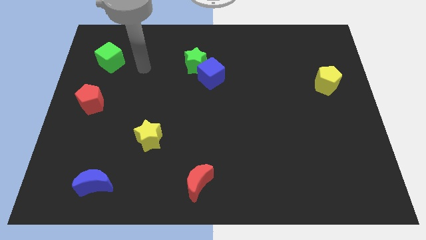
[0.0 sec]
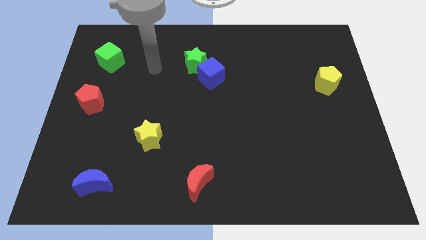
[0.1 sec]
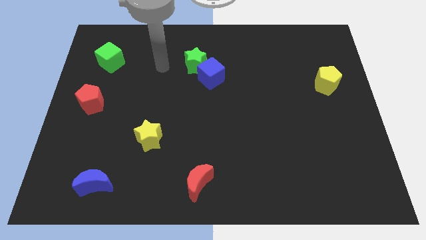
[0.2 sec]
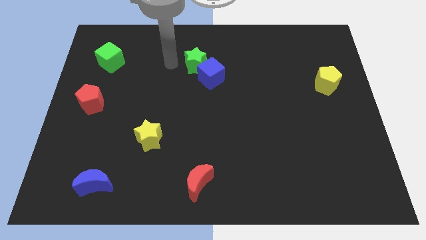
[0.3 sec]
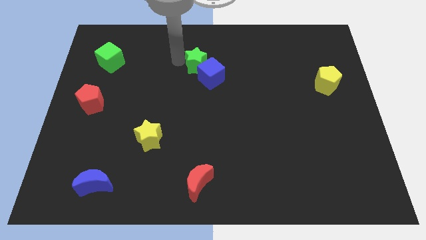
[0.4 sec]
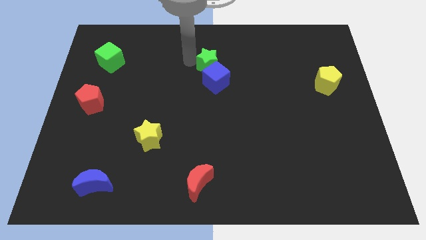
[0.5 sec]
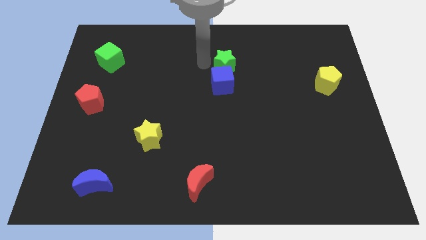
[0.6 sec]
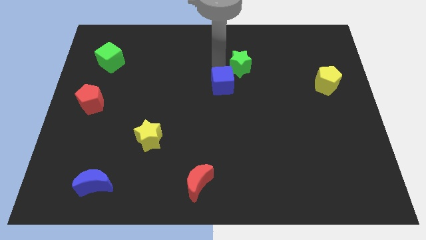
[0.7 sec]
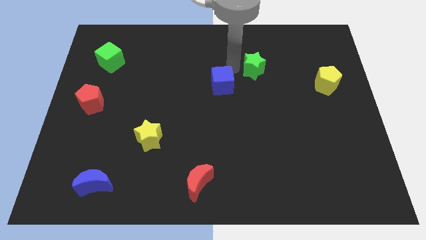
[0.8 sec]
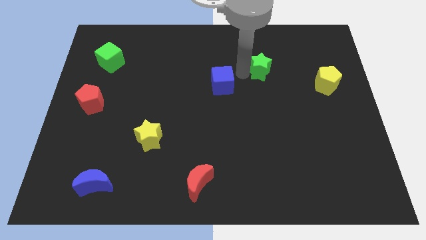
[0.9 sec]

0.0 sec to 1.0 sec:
pull the blue cube apart from the green star

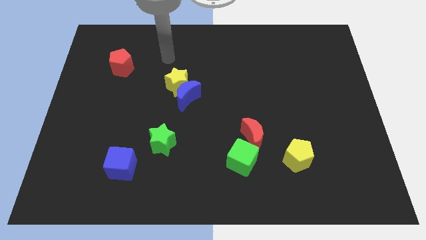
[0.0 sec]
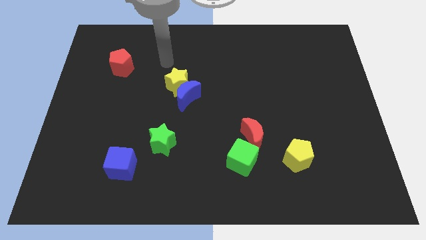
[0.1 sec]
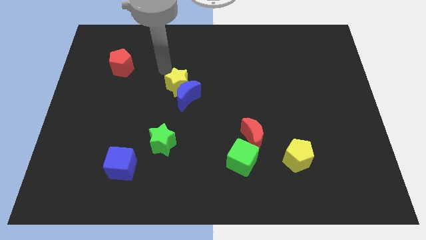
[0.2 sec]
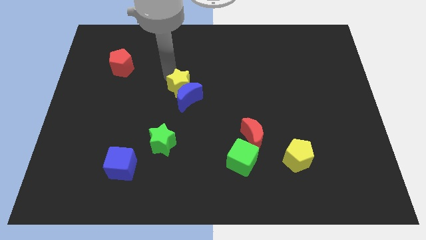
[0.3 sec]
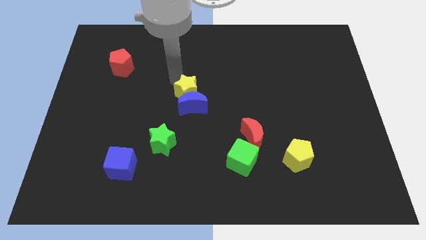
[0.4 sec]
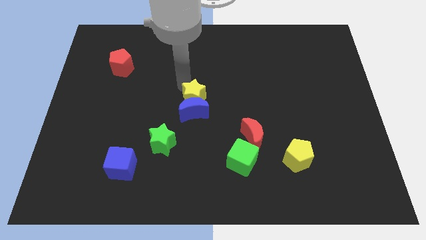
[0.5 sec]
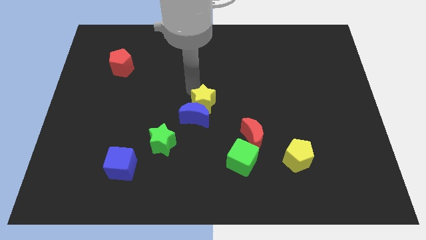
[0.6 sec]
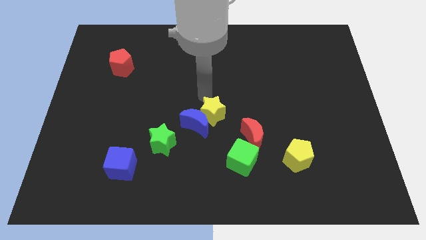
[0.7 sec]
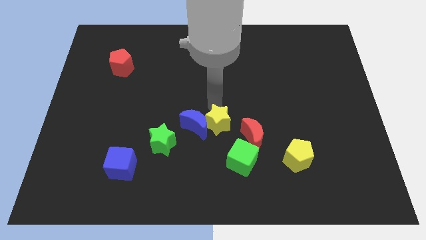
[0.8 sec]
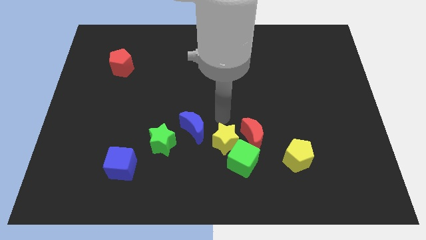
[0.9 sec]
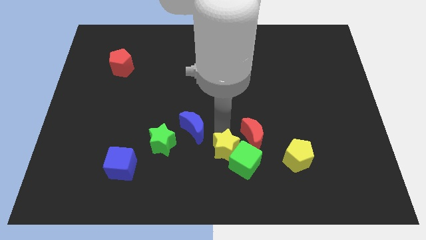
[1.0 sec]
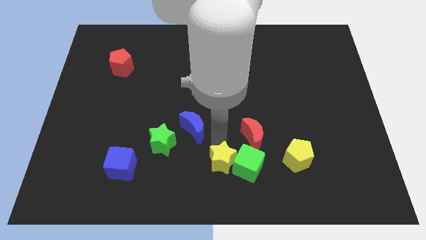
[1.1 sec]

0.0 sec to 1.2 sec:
pull the blue moon apart from the yellow star

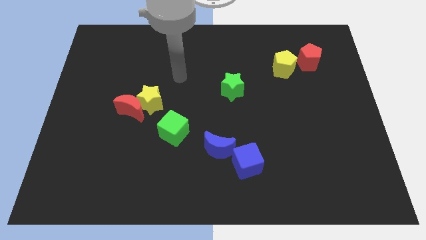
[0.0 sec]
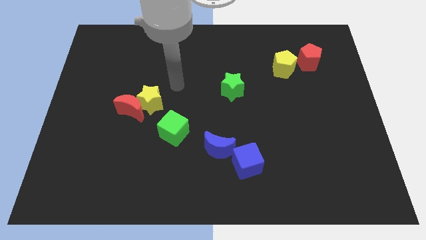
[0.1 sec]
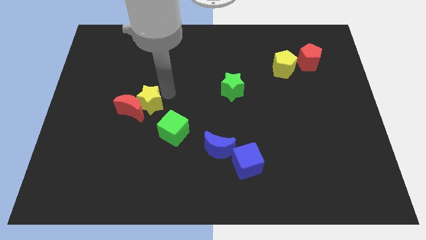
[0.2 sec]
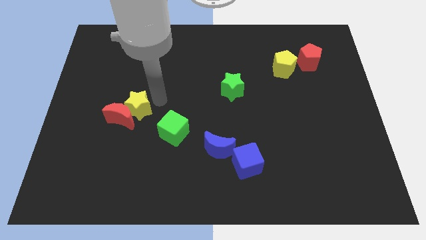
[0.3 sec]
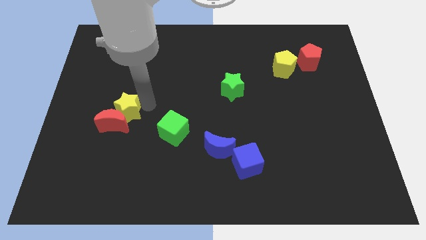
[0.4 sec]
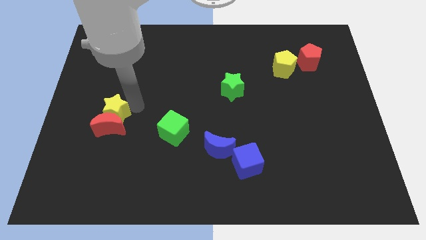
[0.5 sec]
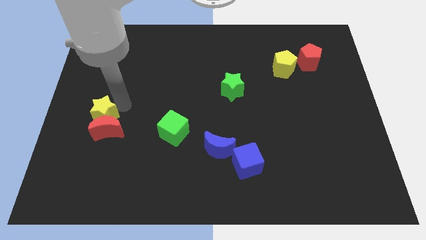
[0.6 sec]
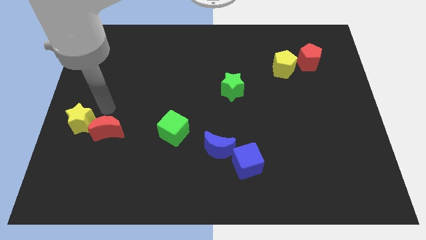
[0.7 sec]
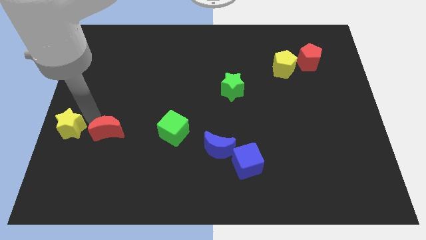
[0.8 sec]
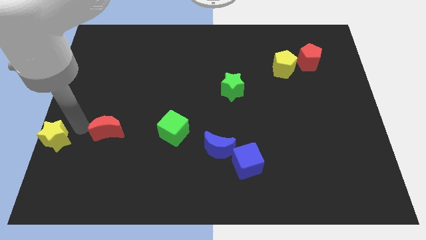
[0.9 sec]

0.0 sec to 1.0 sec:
separate the red moon from the yellow star

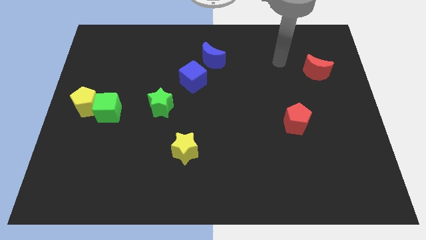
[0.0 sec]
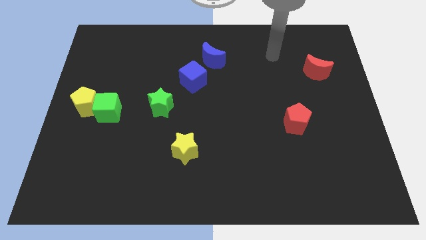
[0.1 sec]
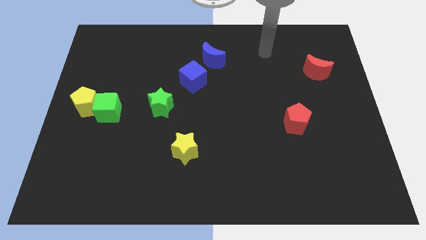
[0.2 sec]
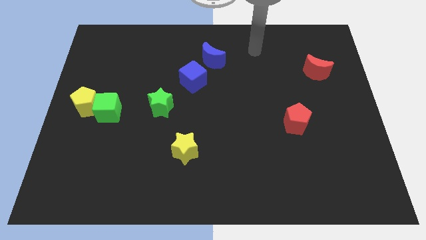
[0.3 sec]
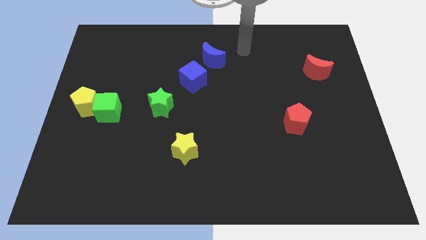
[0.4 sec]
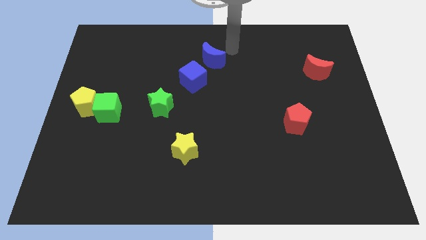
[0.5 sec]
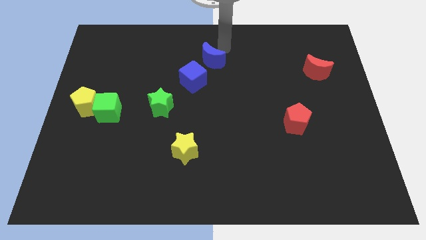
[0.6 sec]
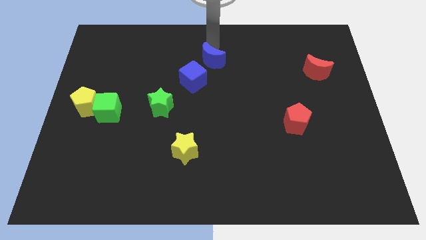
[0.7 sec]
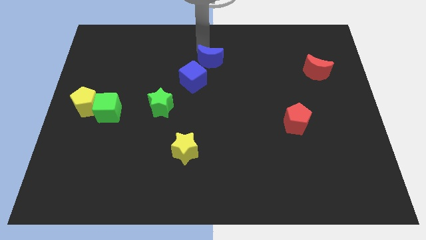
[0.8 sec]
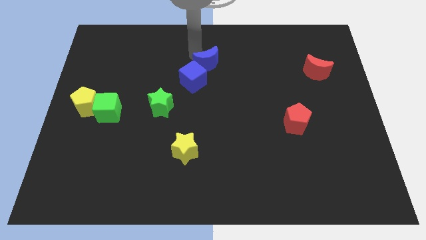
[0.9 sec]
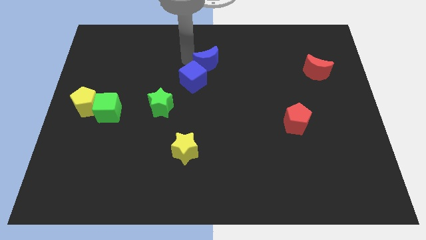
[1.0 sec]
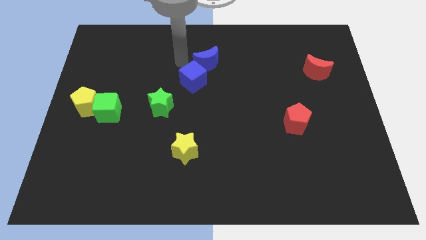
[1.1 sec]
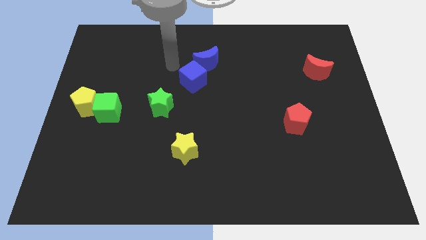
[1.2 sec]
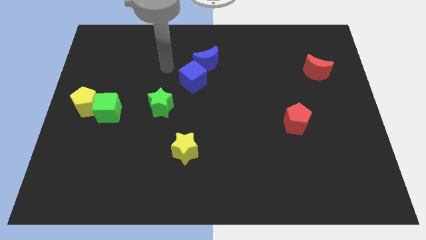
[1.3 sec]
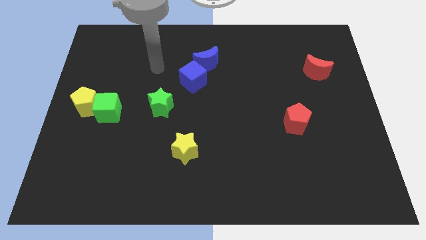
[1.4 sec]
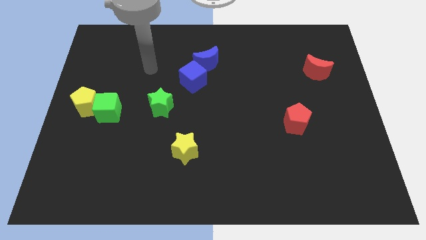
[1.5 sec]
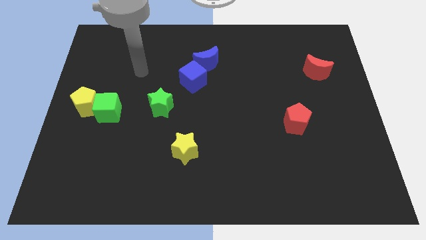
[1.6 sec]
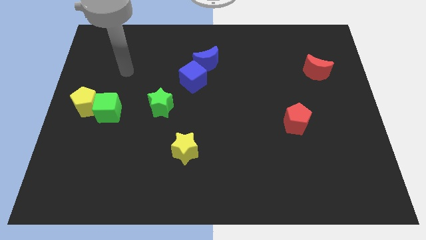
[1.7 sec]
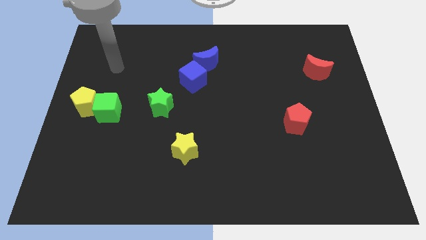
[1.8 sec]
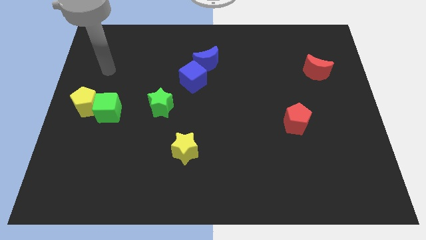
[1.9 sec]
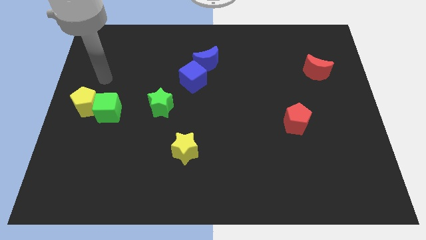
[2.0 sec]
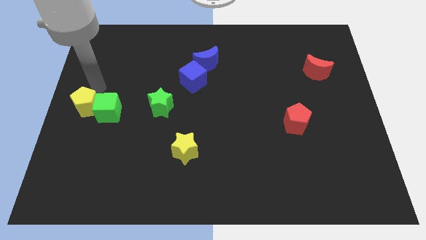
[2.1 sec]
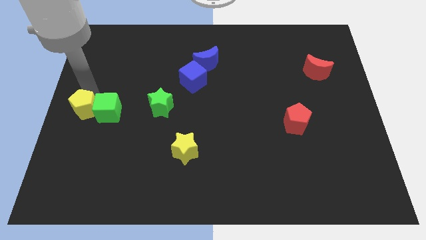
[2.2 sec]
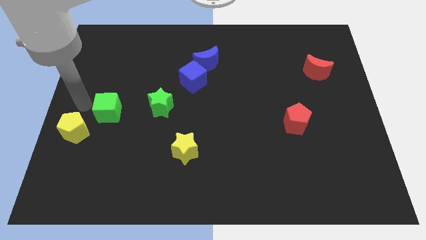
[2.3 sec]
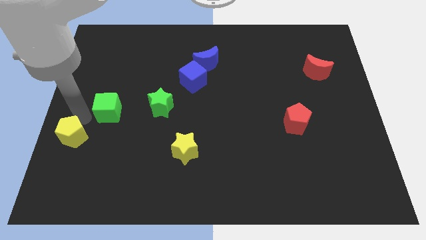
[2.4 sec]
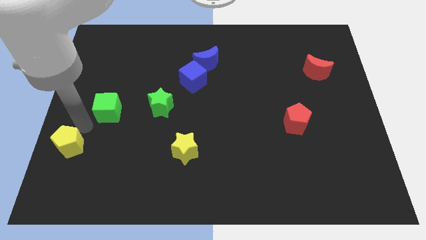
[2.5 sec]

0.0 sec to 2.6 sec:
separate the green cube from the yellow pentagon

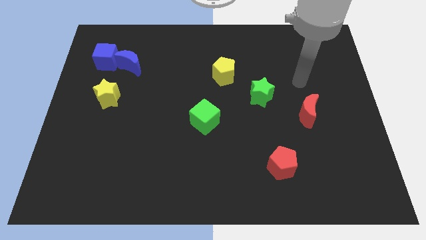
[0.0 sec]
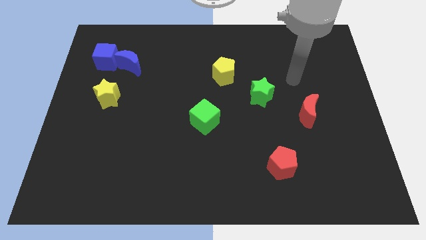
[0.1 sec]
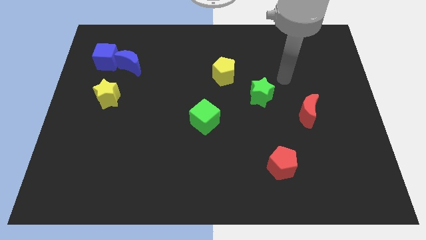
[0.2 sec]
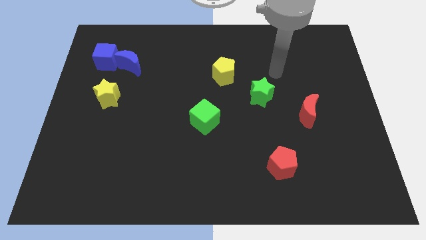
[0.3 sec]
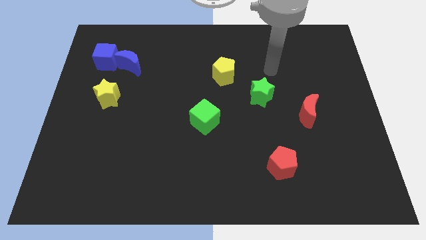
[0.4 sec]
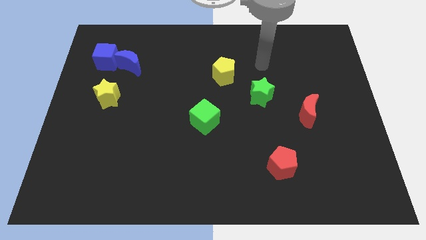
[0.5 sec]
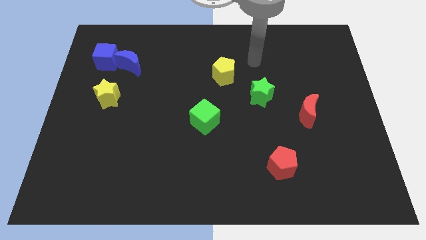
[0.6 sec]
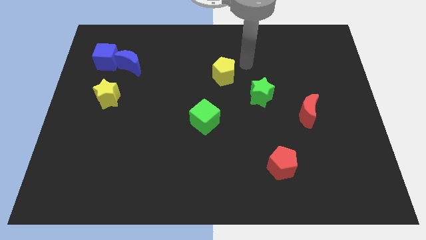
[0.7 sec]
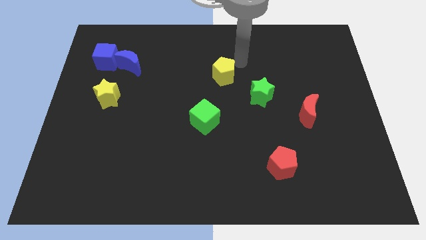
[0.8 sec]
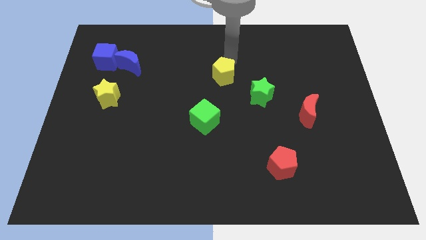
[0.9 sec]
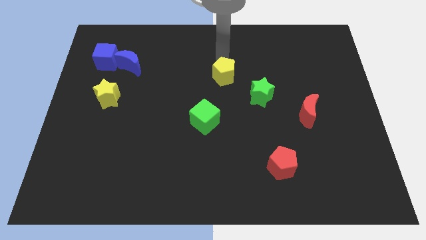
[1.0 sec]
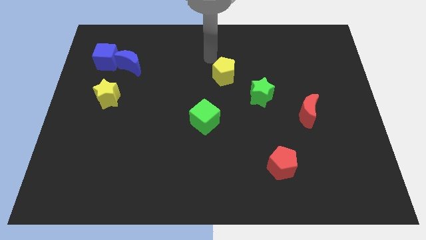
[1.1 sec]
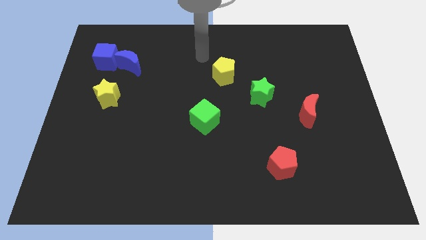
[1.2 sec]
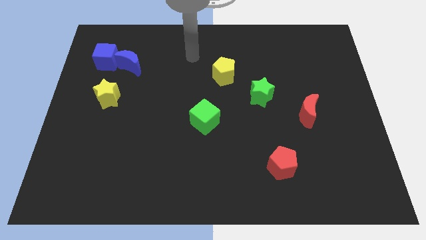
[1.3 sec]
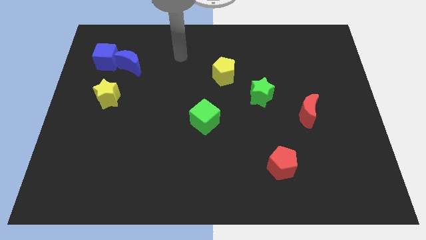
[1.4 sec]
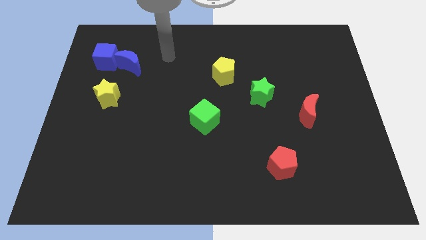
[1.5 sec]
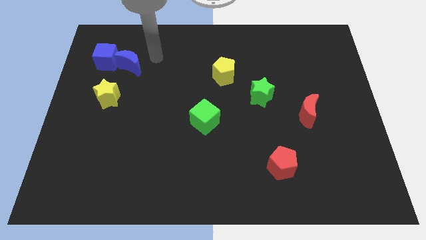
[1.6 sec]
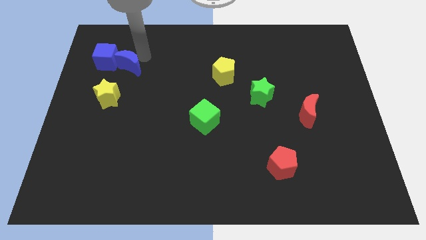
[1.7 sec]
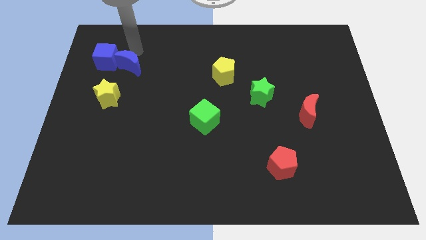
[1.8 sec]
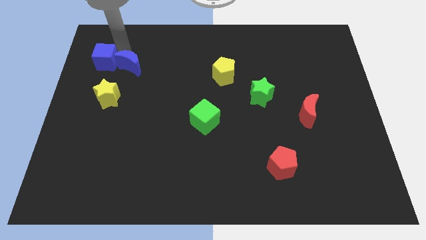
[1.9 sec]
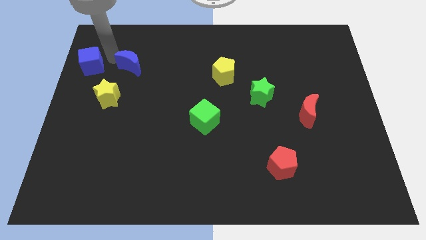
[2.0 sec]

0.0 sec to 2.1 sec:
separate the blue moon from the blue cube

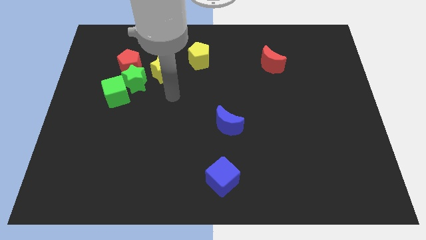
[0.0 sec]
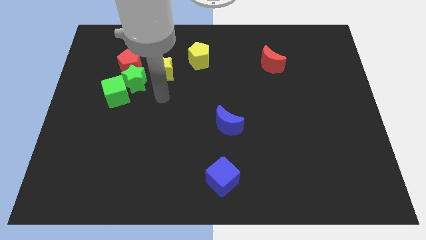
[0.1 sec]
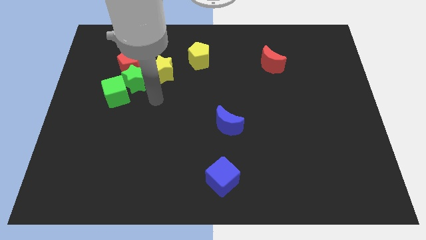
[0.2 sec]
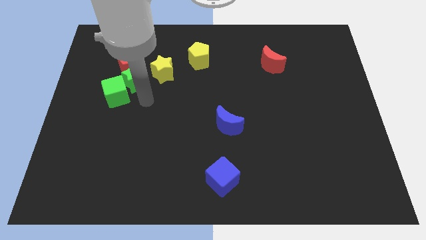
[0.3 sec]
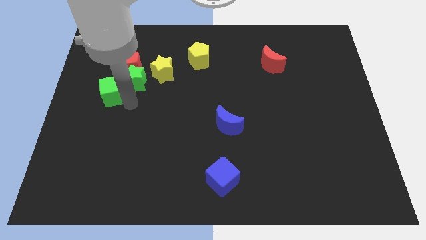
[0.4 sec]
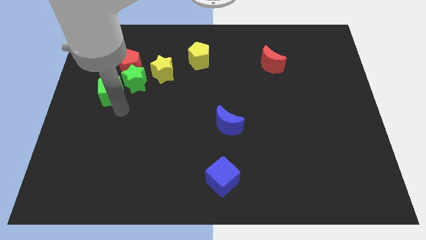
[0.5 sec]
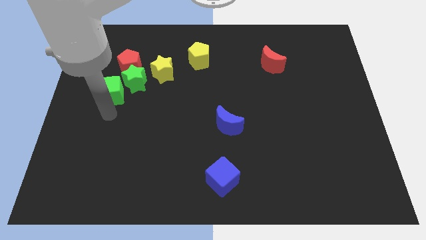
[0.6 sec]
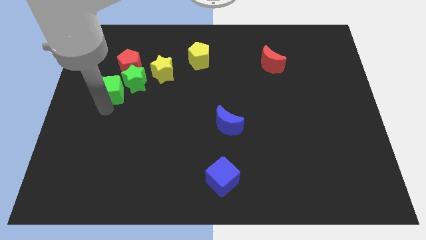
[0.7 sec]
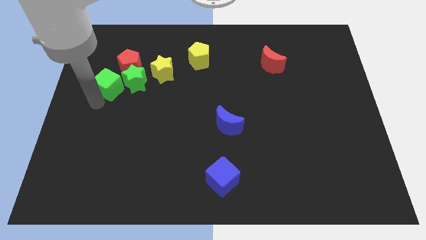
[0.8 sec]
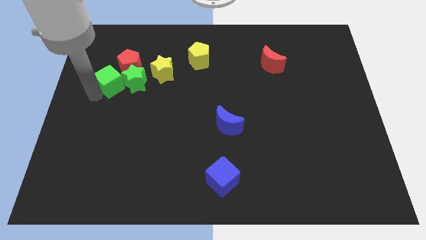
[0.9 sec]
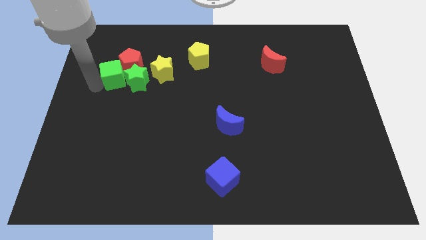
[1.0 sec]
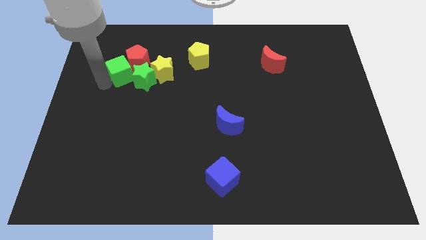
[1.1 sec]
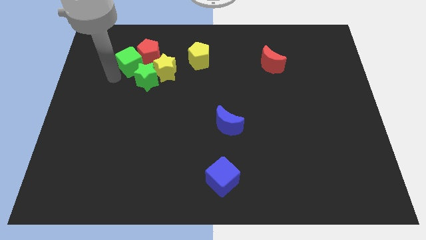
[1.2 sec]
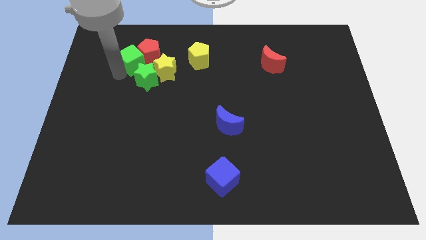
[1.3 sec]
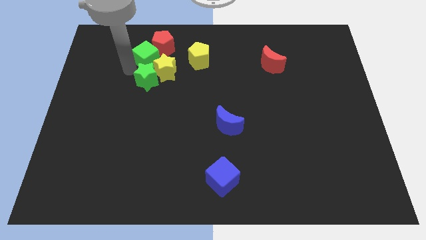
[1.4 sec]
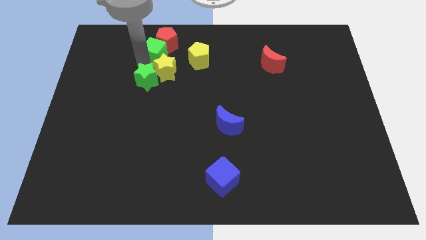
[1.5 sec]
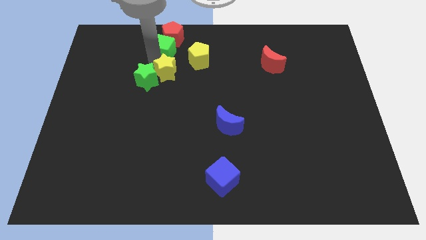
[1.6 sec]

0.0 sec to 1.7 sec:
pull the green star apart from the green cube, red pentagon, and yellow star
